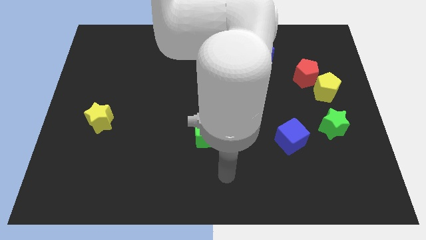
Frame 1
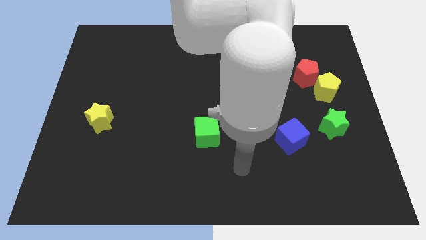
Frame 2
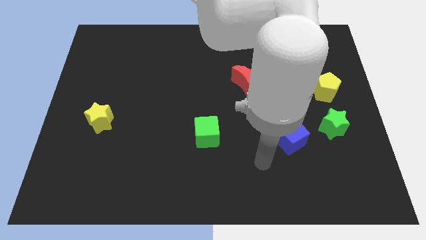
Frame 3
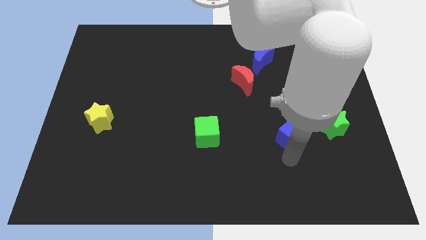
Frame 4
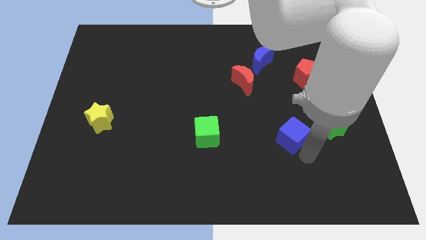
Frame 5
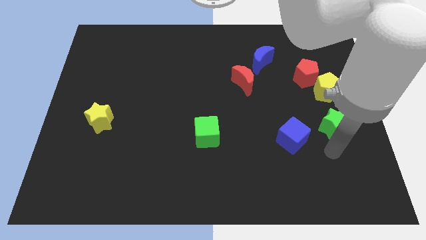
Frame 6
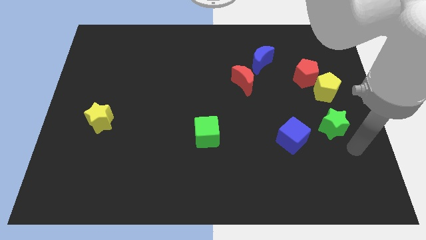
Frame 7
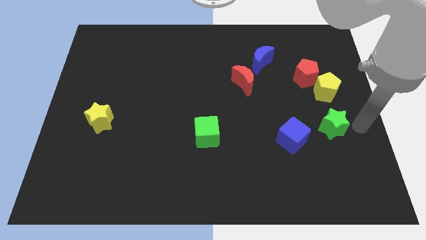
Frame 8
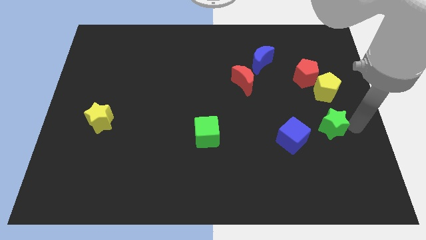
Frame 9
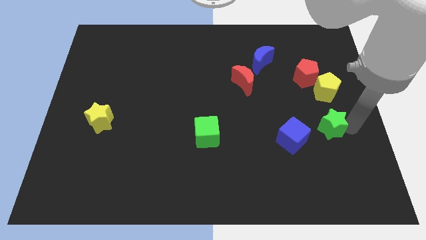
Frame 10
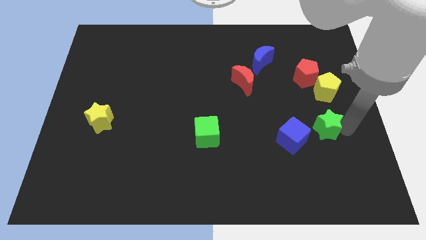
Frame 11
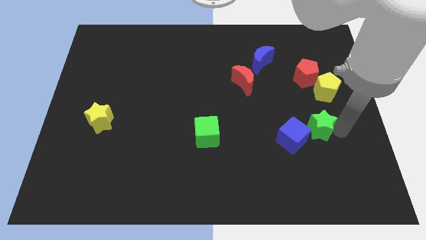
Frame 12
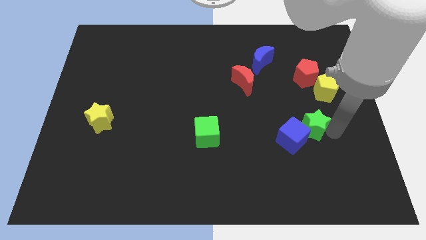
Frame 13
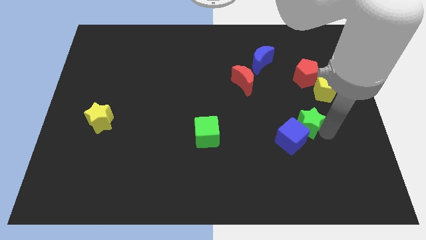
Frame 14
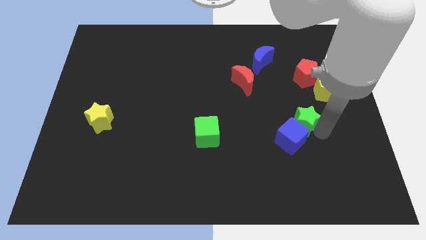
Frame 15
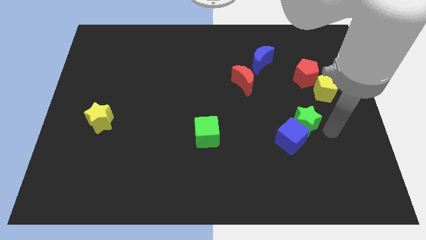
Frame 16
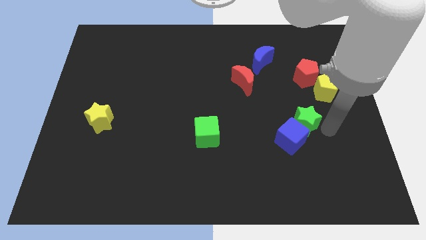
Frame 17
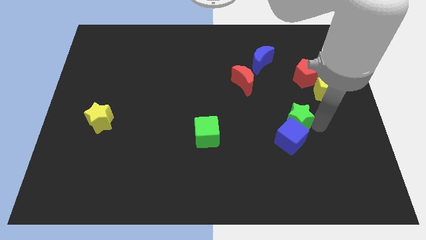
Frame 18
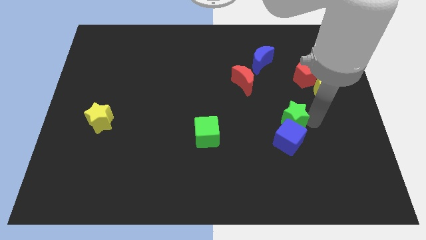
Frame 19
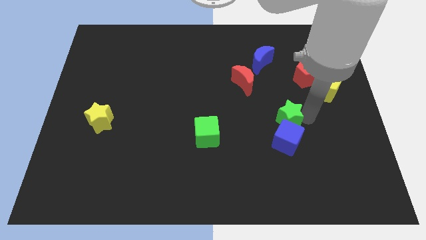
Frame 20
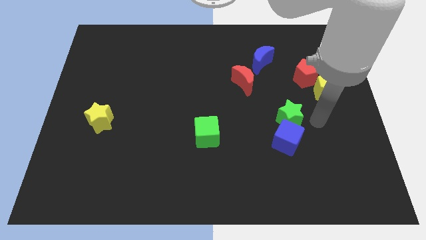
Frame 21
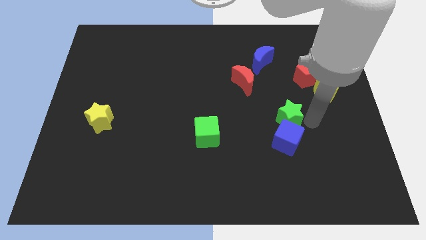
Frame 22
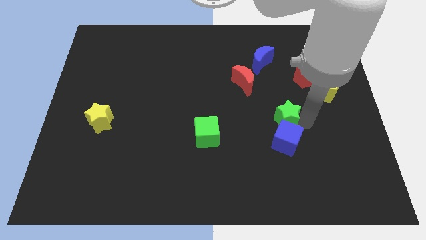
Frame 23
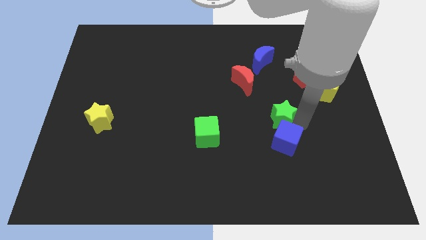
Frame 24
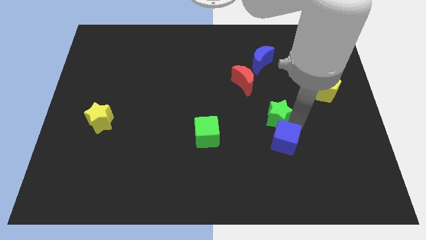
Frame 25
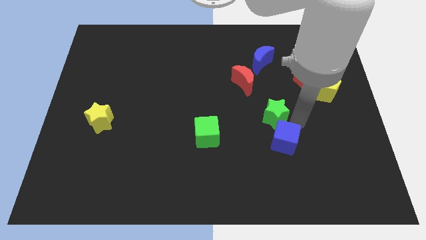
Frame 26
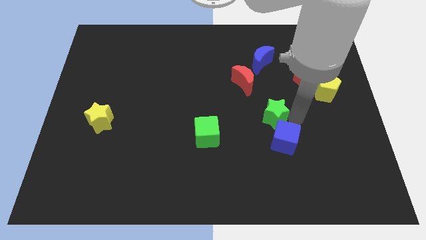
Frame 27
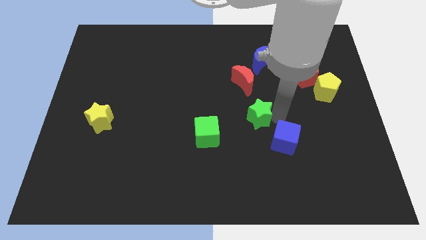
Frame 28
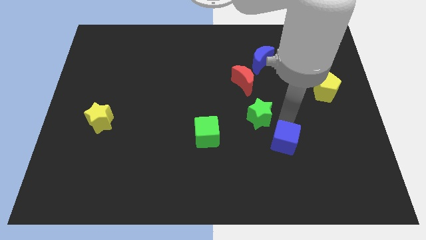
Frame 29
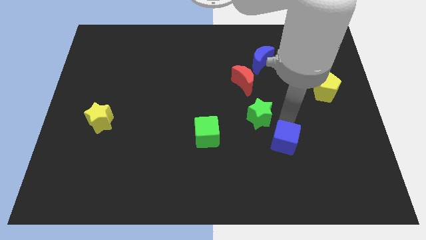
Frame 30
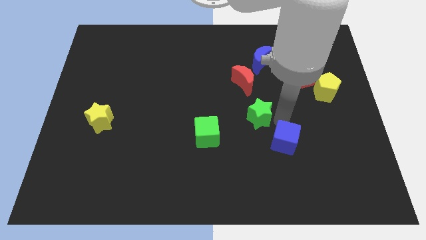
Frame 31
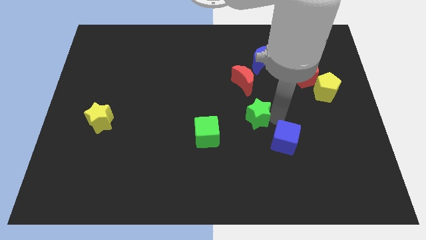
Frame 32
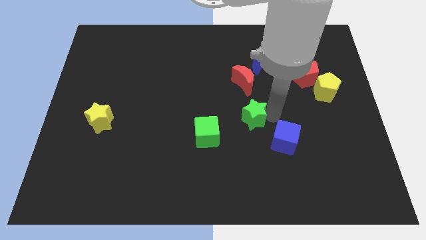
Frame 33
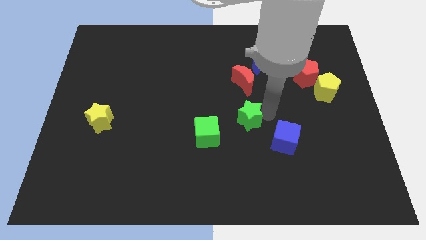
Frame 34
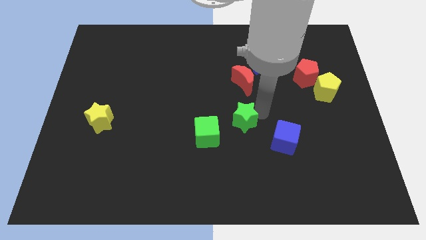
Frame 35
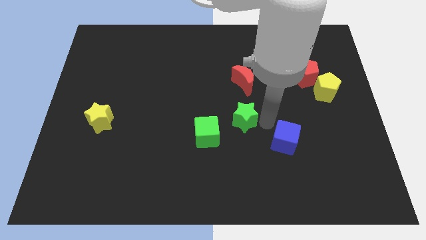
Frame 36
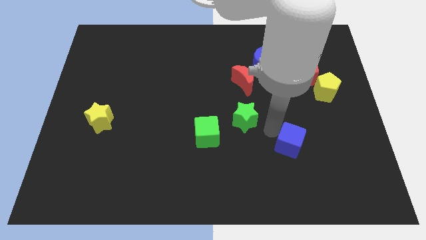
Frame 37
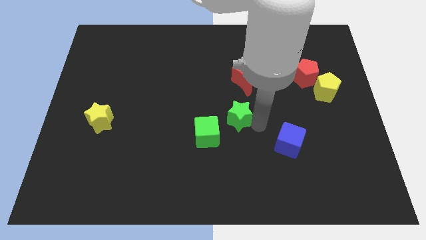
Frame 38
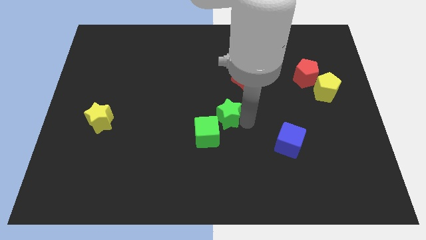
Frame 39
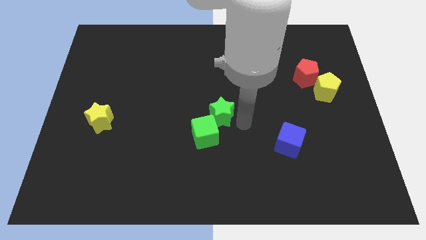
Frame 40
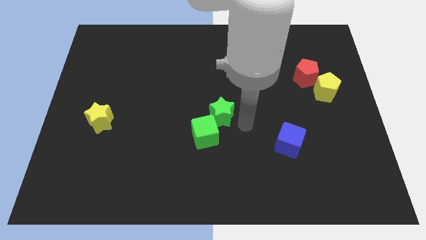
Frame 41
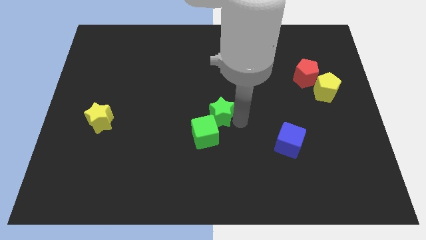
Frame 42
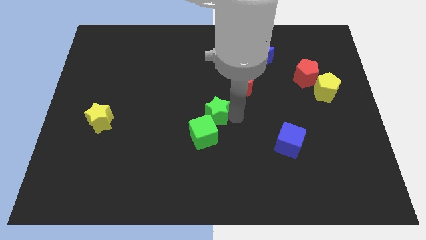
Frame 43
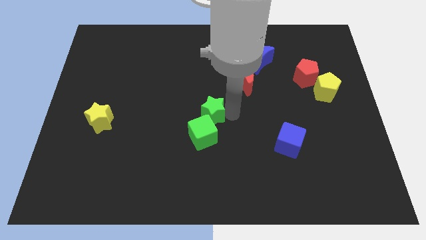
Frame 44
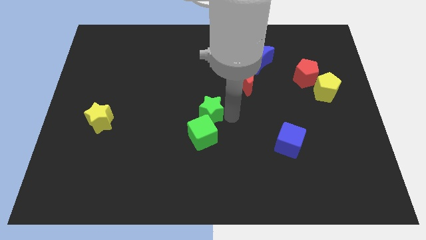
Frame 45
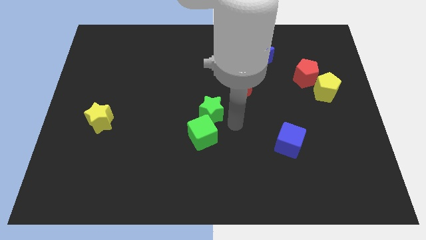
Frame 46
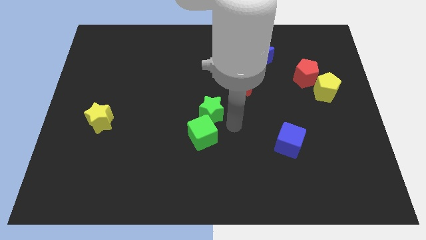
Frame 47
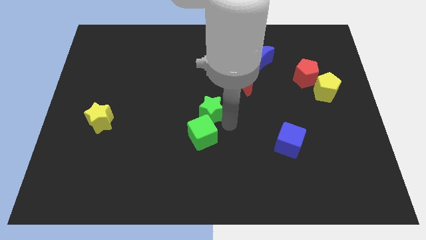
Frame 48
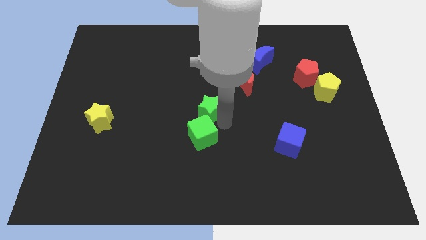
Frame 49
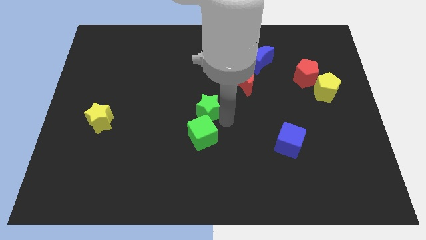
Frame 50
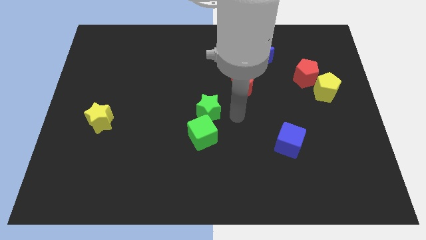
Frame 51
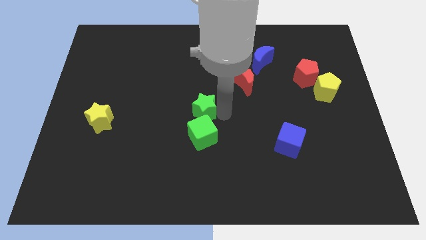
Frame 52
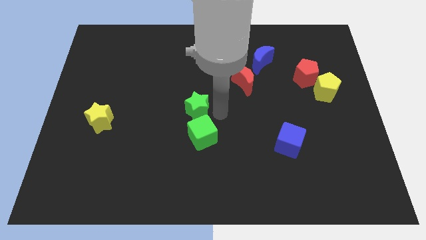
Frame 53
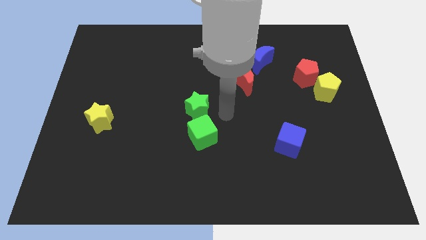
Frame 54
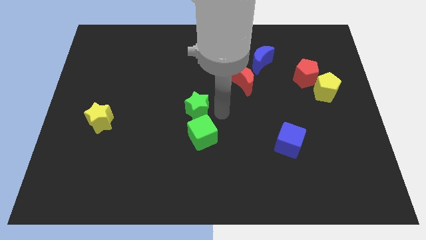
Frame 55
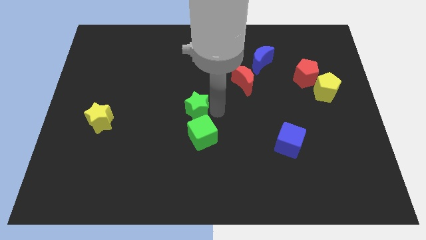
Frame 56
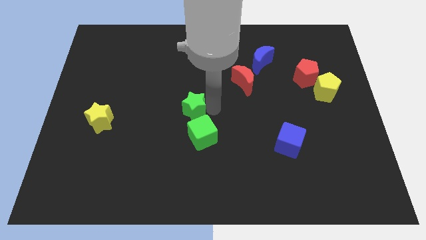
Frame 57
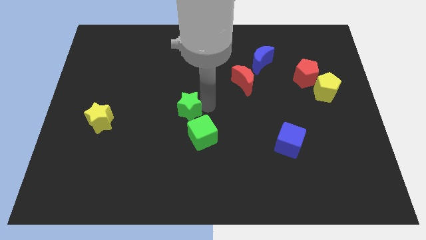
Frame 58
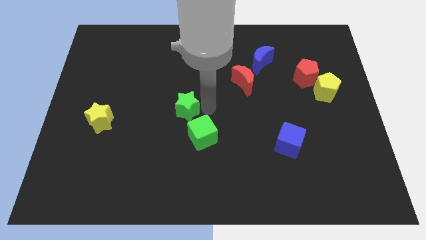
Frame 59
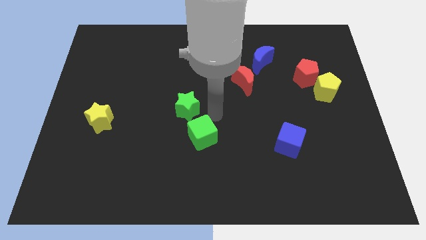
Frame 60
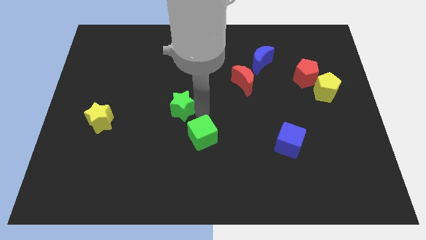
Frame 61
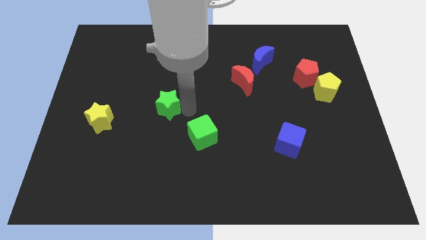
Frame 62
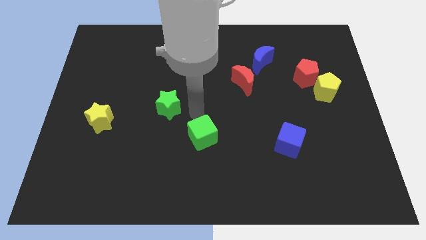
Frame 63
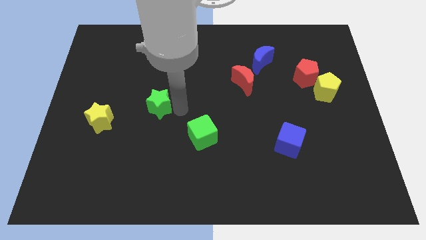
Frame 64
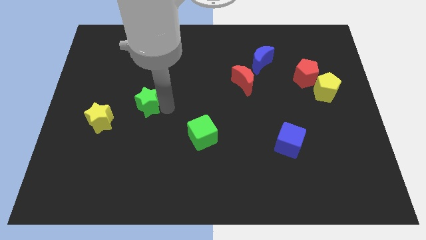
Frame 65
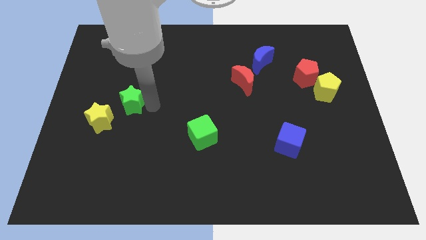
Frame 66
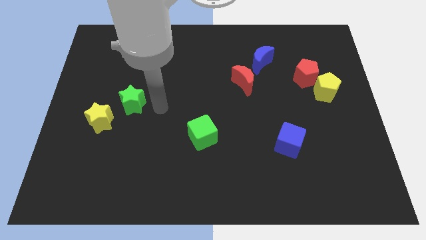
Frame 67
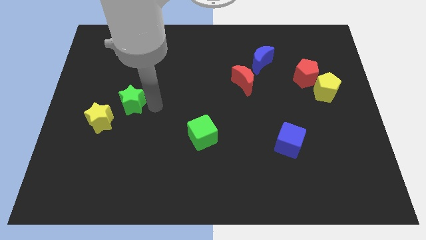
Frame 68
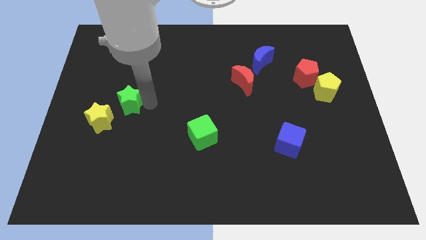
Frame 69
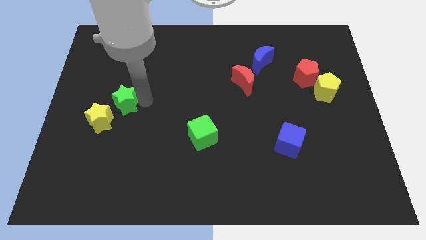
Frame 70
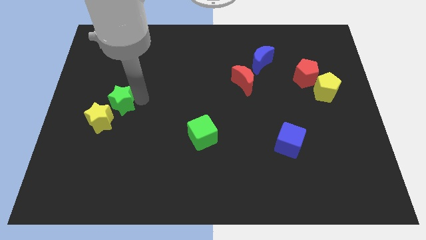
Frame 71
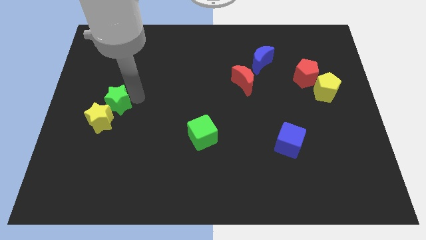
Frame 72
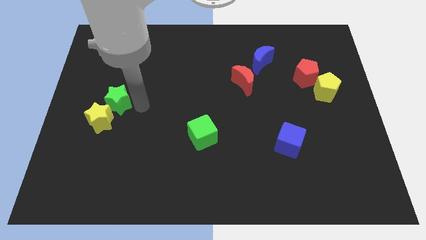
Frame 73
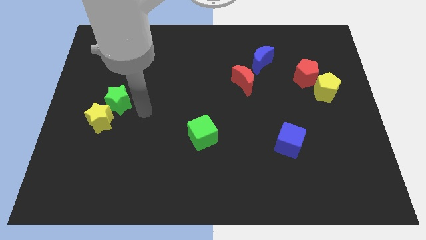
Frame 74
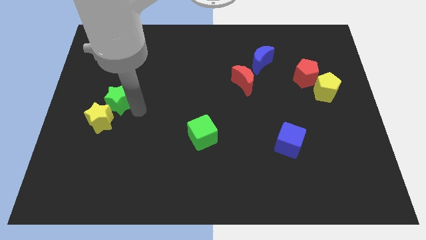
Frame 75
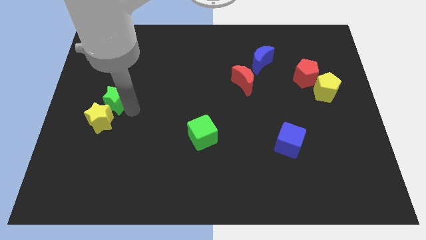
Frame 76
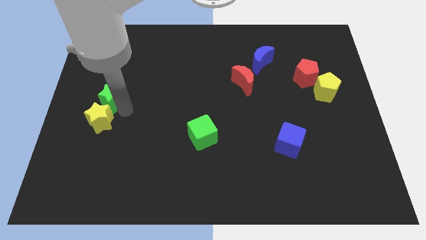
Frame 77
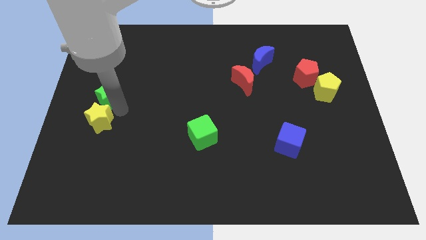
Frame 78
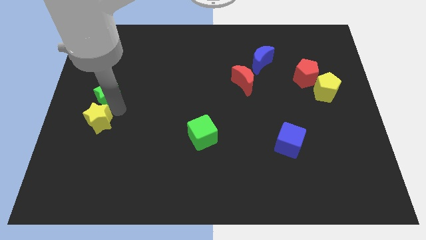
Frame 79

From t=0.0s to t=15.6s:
move the green star to the center left
